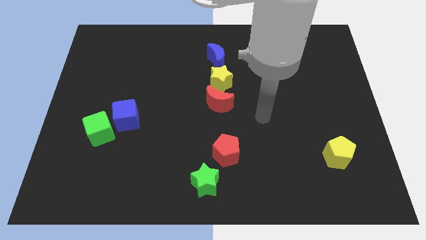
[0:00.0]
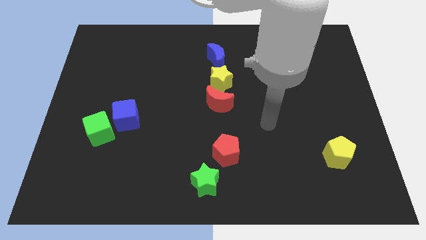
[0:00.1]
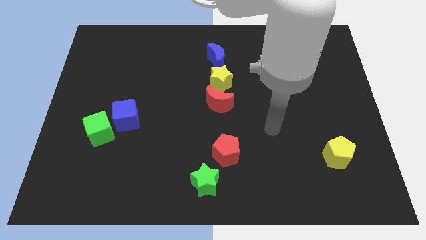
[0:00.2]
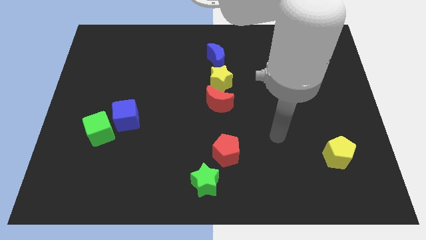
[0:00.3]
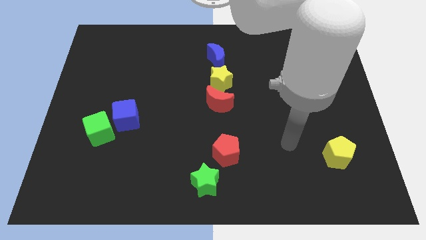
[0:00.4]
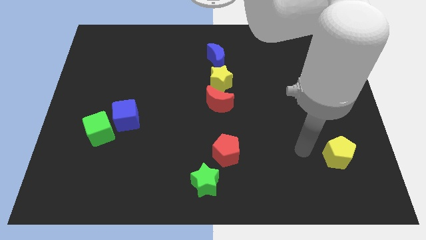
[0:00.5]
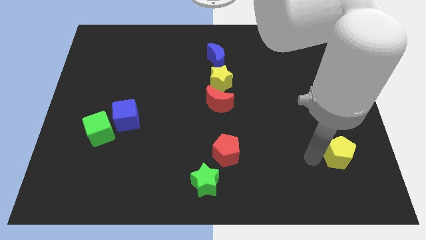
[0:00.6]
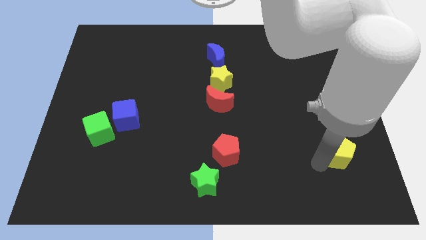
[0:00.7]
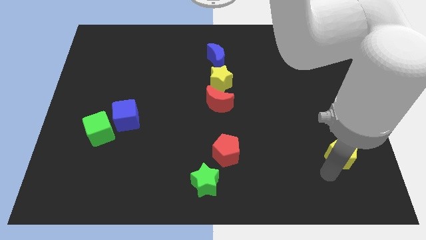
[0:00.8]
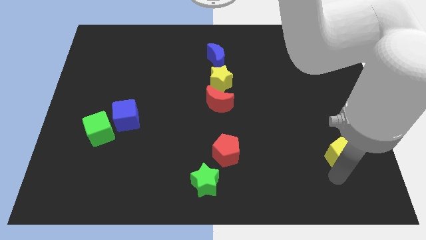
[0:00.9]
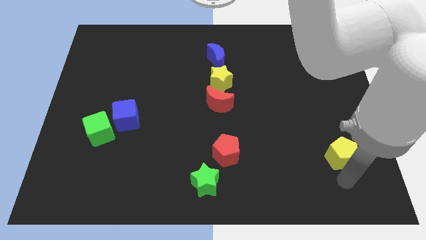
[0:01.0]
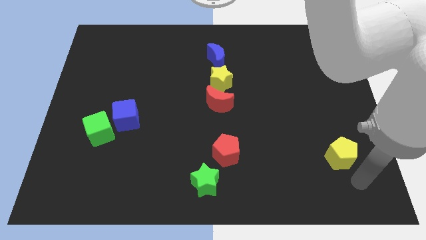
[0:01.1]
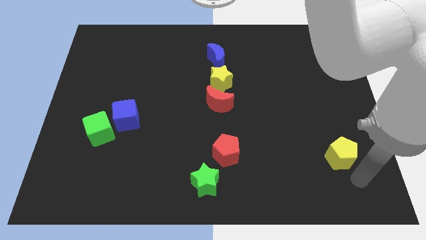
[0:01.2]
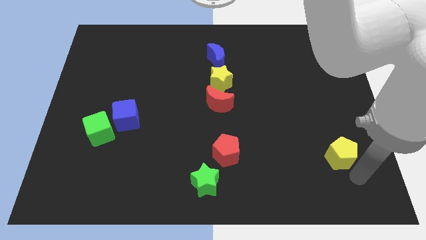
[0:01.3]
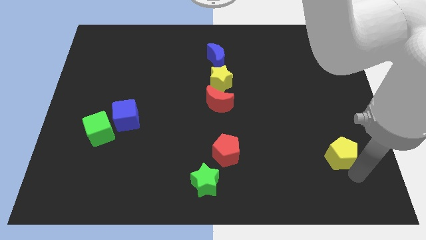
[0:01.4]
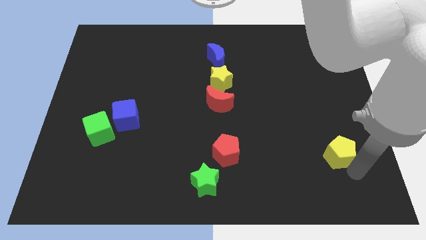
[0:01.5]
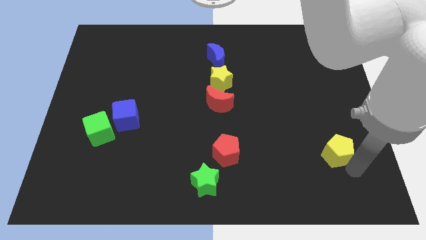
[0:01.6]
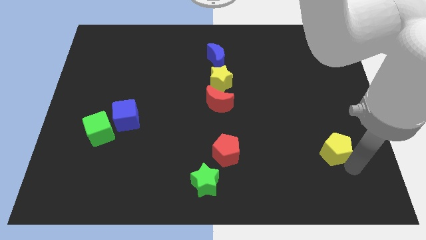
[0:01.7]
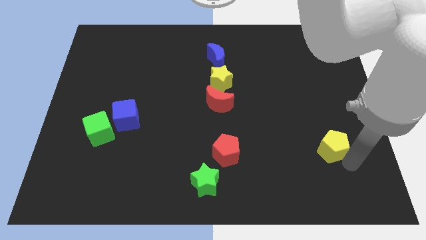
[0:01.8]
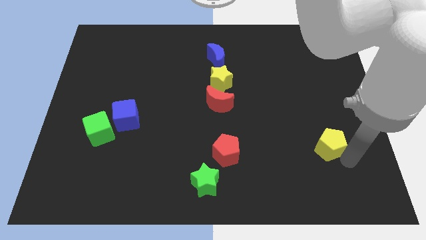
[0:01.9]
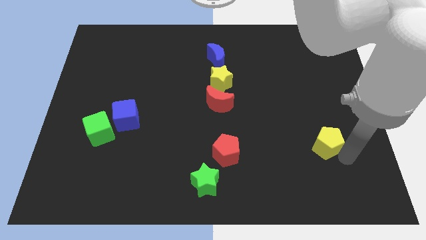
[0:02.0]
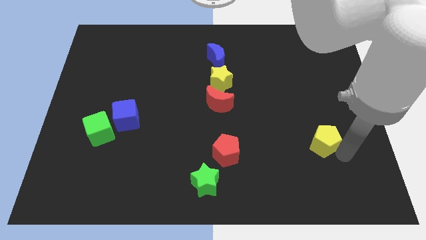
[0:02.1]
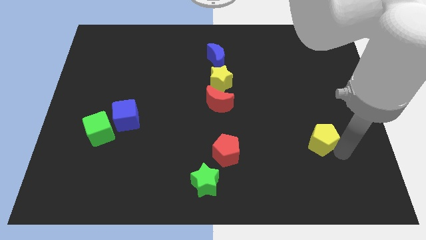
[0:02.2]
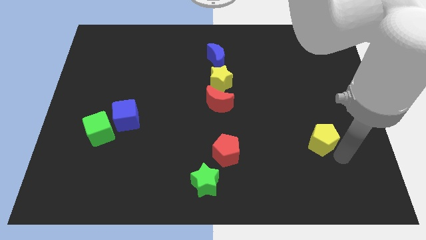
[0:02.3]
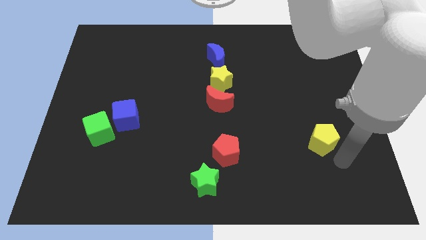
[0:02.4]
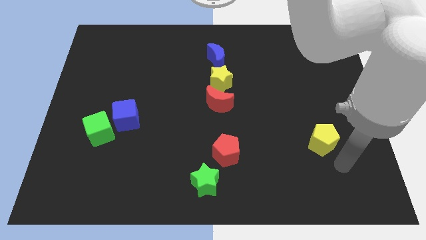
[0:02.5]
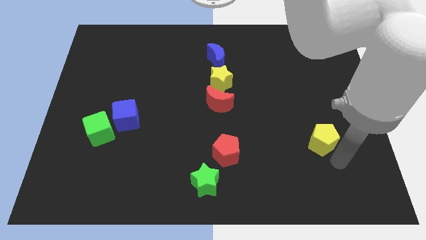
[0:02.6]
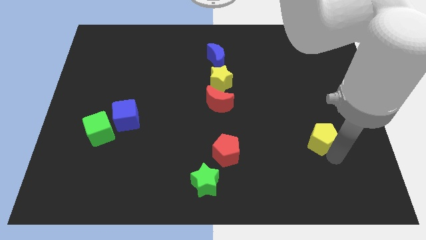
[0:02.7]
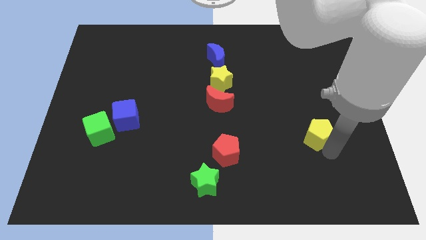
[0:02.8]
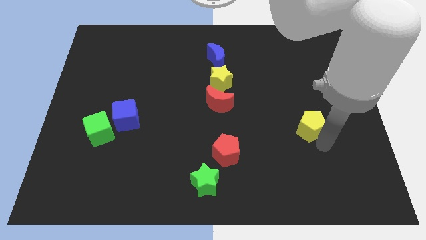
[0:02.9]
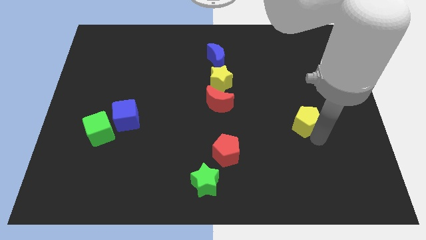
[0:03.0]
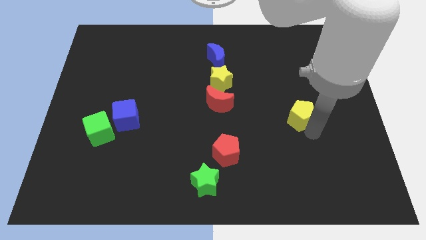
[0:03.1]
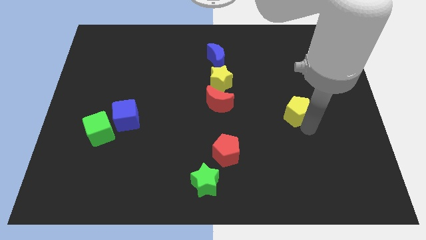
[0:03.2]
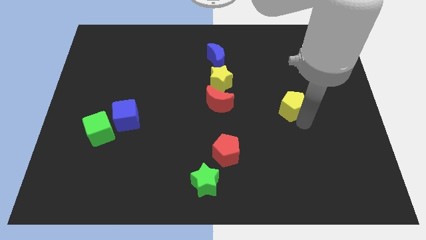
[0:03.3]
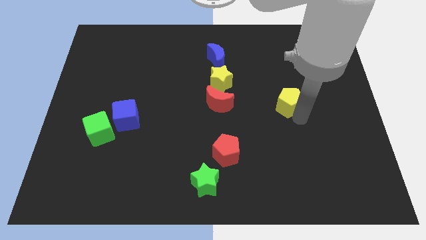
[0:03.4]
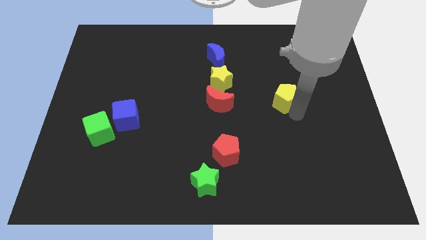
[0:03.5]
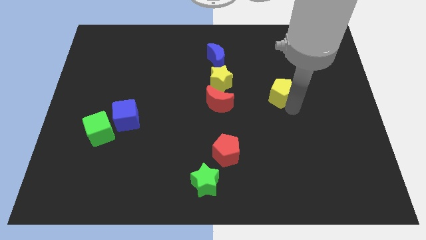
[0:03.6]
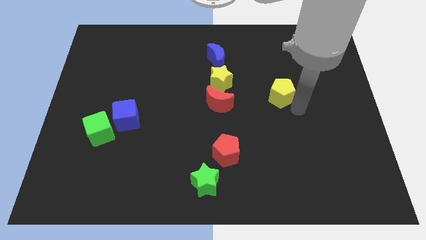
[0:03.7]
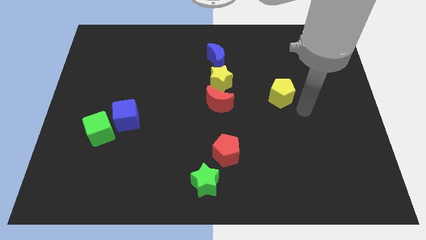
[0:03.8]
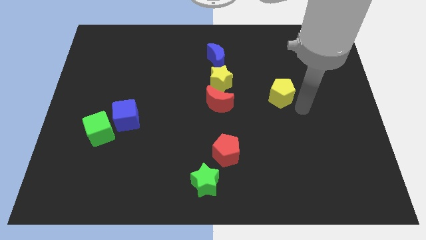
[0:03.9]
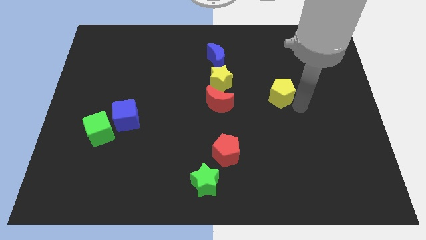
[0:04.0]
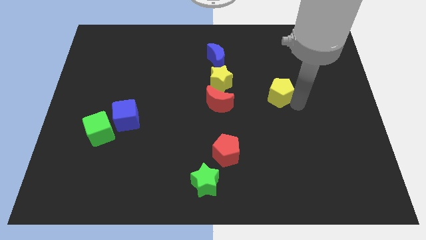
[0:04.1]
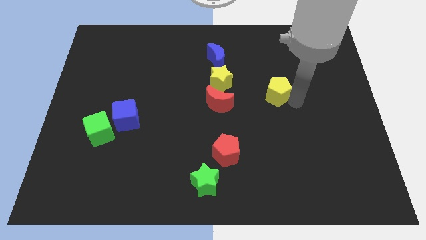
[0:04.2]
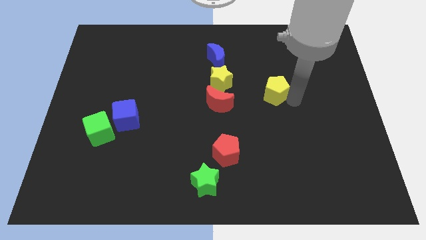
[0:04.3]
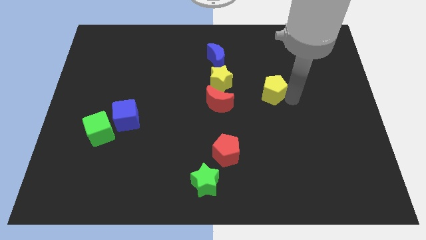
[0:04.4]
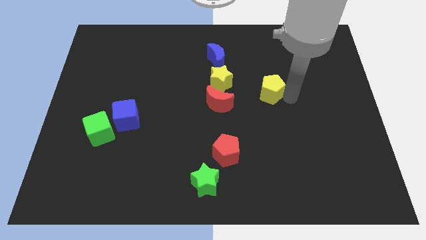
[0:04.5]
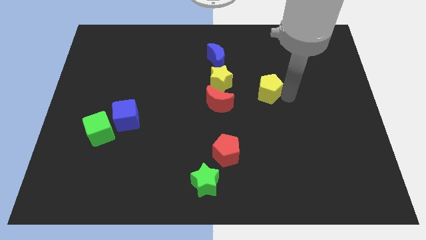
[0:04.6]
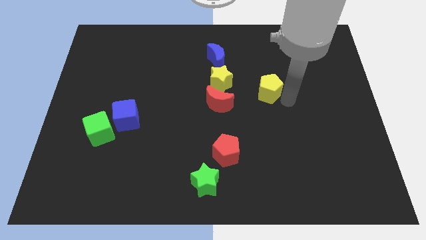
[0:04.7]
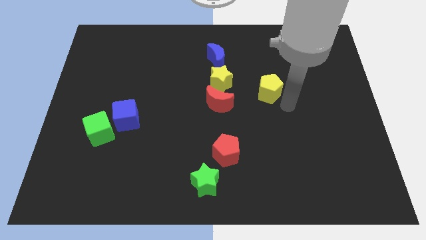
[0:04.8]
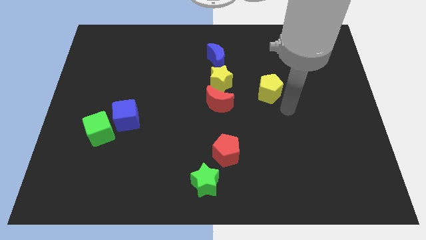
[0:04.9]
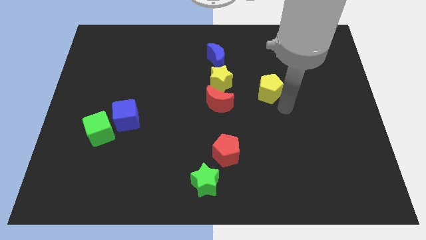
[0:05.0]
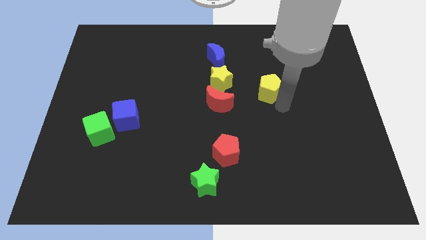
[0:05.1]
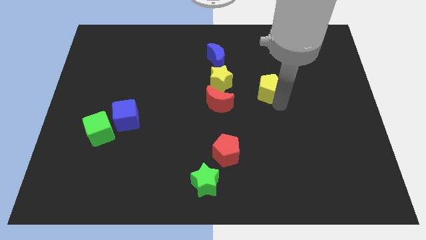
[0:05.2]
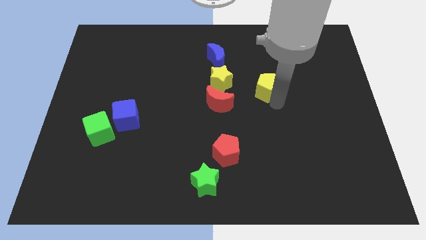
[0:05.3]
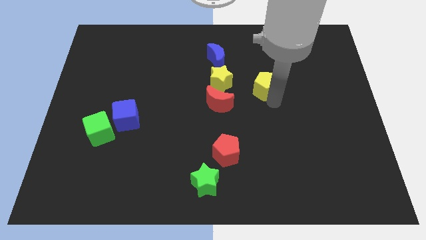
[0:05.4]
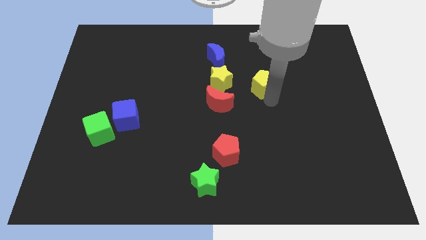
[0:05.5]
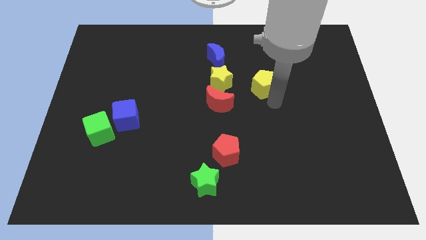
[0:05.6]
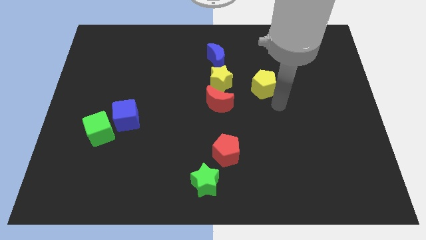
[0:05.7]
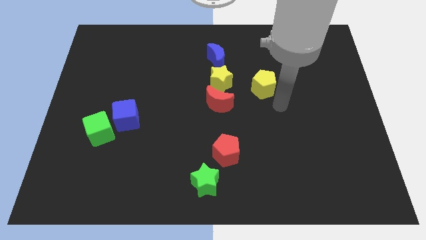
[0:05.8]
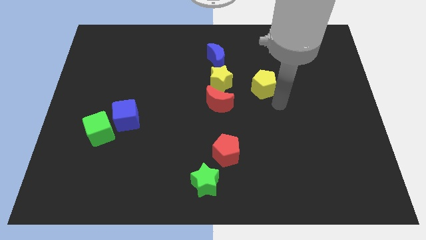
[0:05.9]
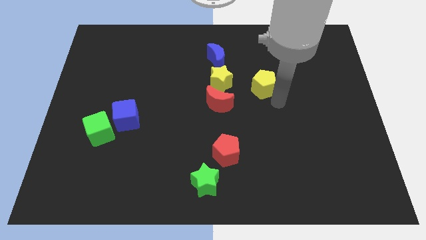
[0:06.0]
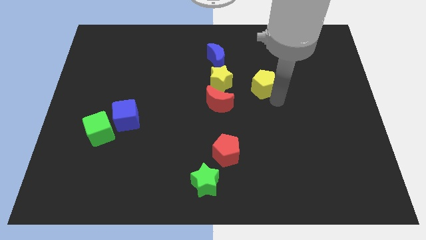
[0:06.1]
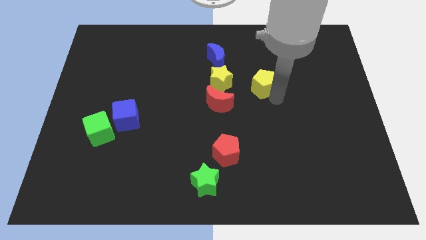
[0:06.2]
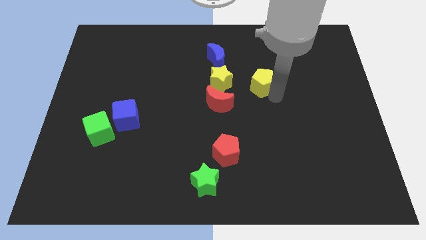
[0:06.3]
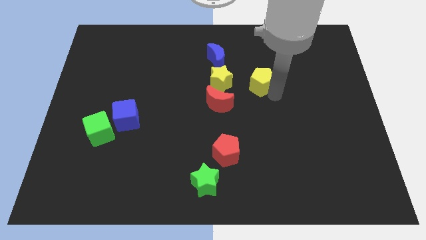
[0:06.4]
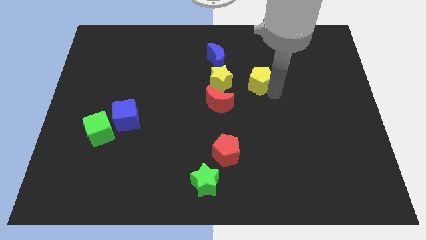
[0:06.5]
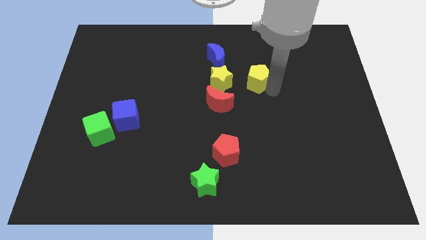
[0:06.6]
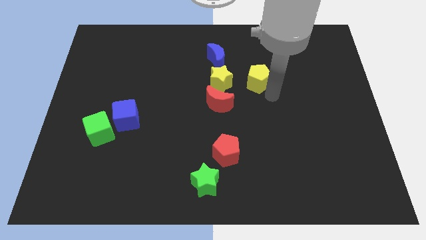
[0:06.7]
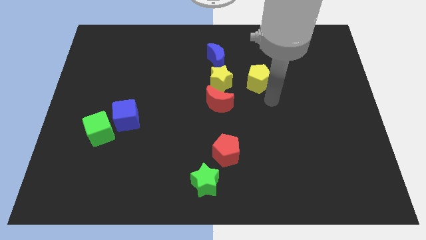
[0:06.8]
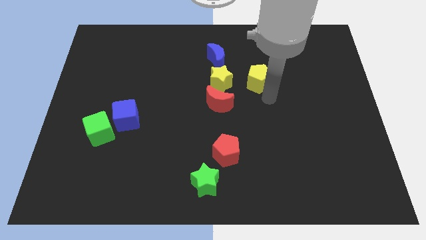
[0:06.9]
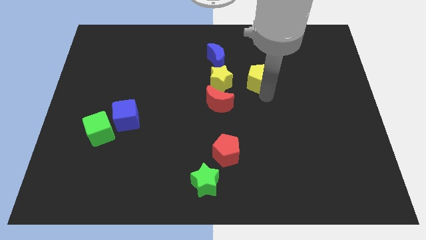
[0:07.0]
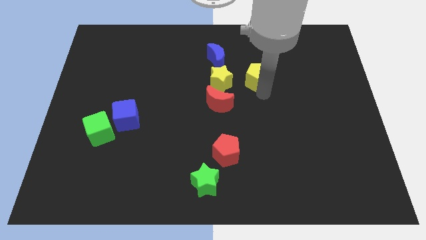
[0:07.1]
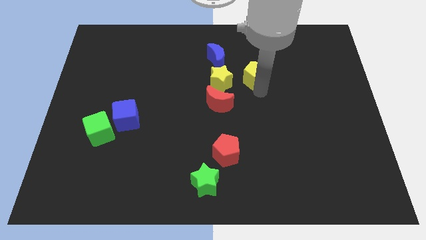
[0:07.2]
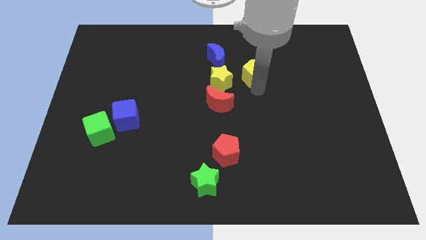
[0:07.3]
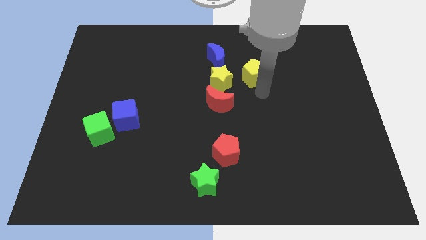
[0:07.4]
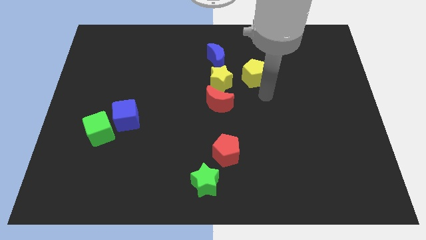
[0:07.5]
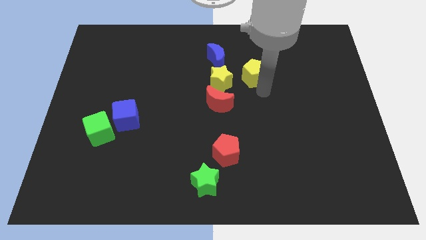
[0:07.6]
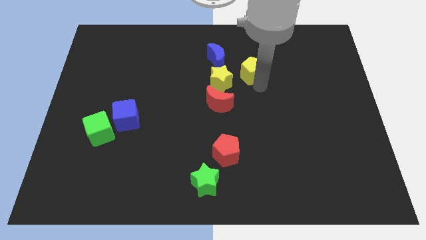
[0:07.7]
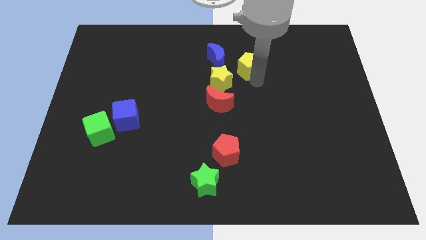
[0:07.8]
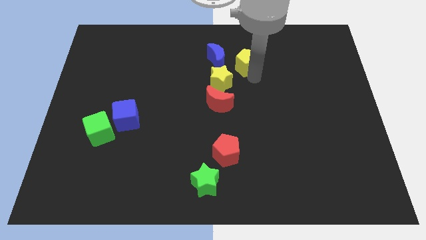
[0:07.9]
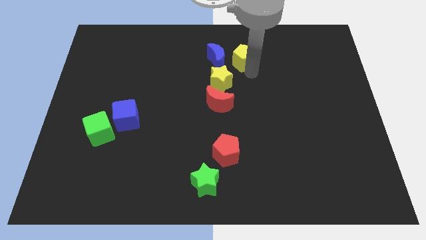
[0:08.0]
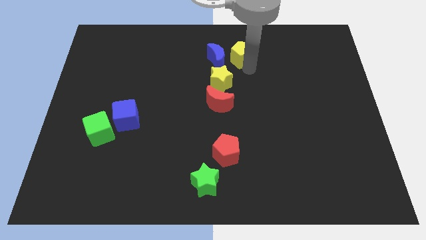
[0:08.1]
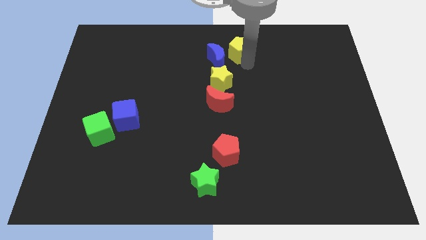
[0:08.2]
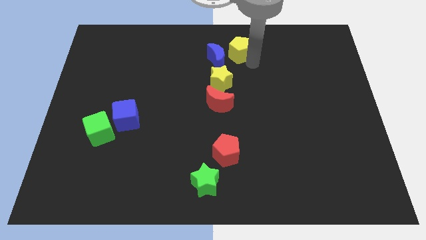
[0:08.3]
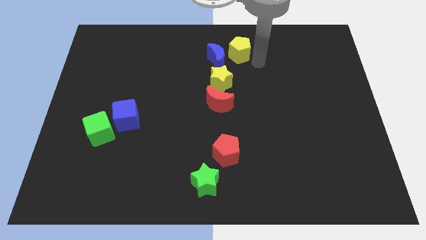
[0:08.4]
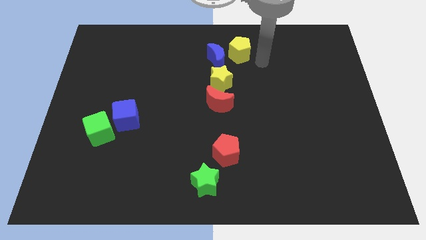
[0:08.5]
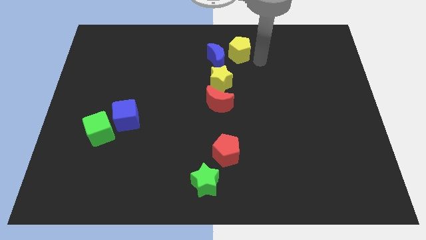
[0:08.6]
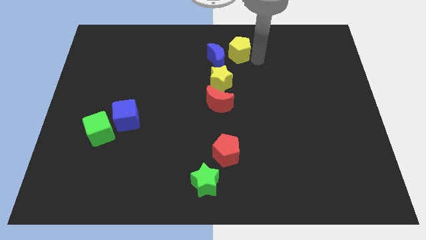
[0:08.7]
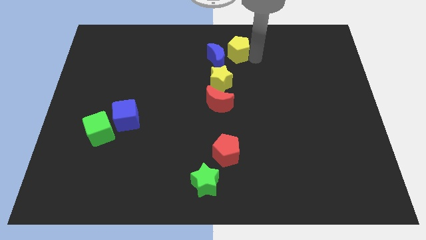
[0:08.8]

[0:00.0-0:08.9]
move the yellow pentagon to the top
